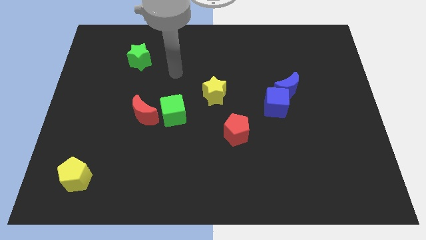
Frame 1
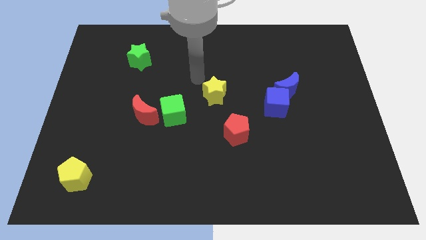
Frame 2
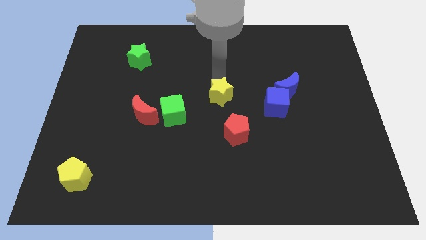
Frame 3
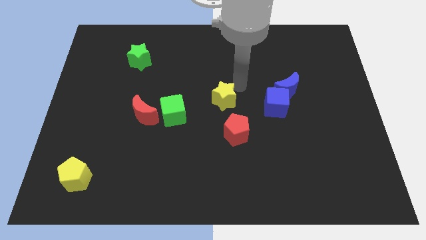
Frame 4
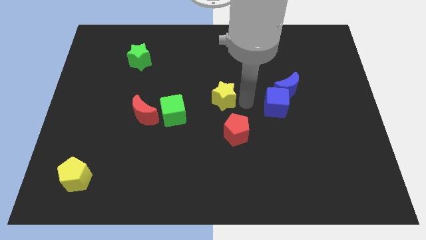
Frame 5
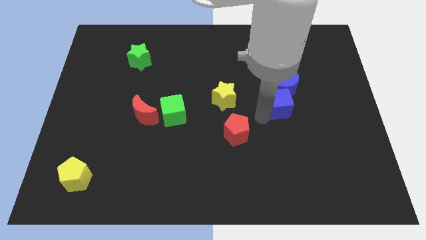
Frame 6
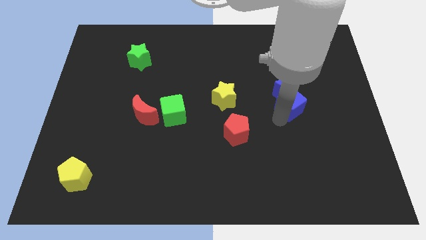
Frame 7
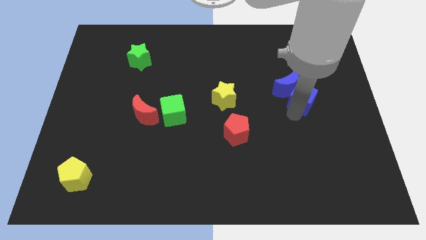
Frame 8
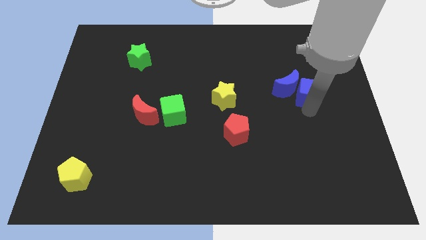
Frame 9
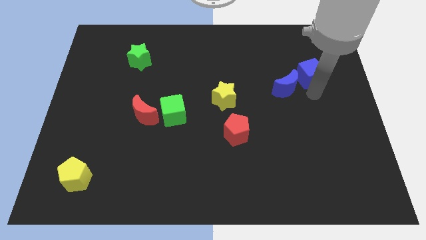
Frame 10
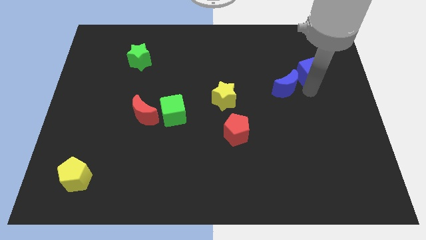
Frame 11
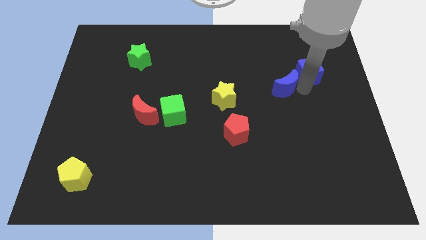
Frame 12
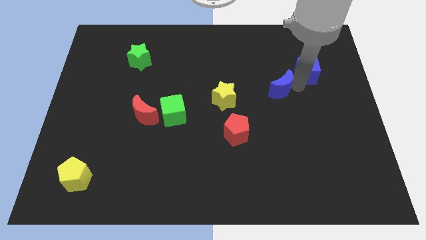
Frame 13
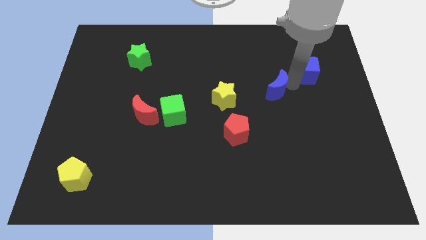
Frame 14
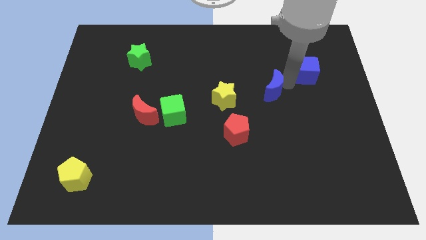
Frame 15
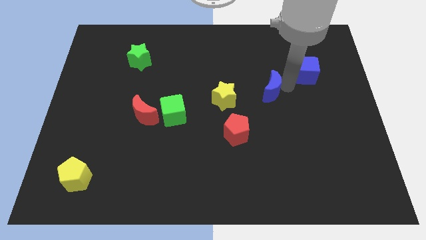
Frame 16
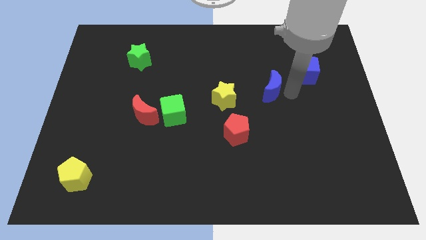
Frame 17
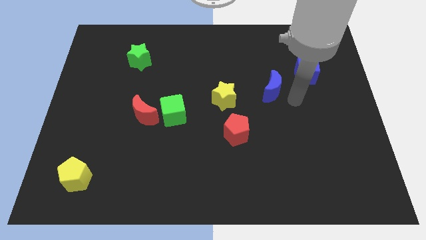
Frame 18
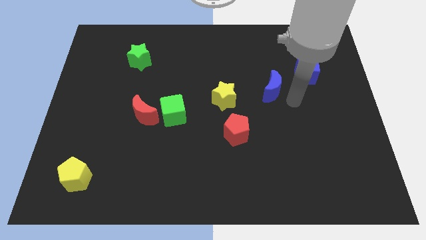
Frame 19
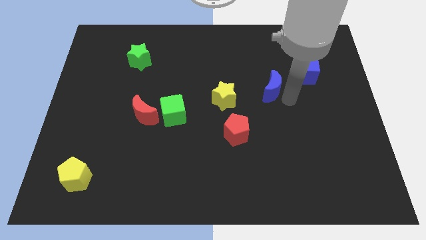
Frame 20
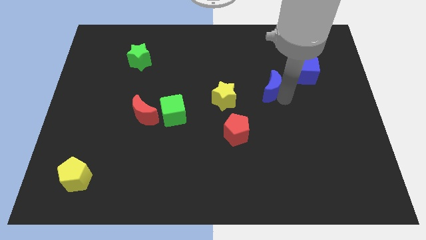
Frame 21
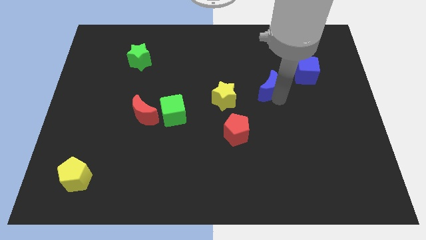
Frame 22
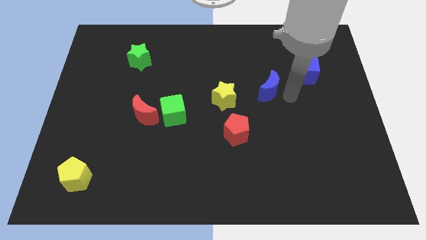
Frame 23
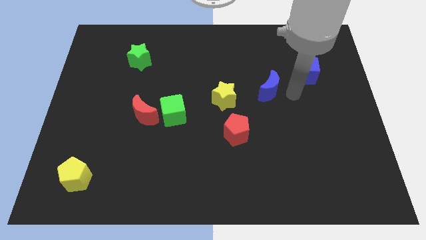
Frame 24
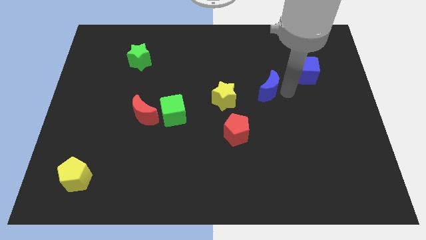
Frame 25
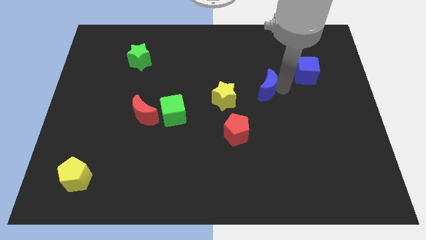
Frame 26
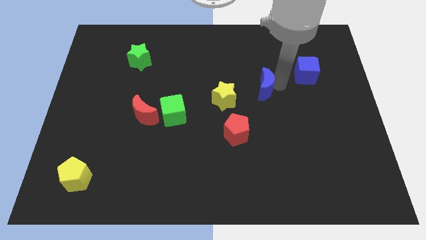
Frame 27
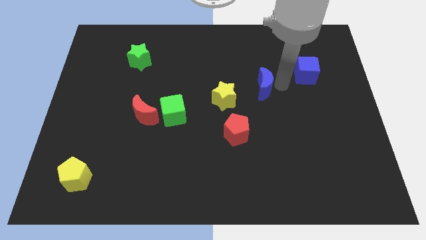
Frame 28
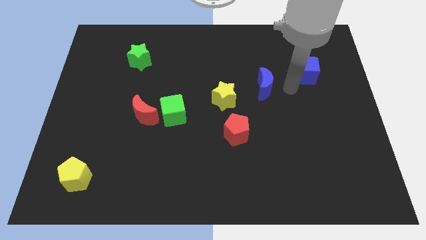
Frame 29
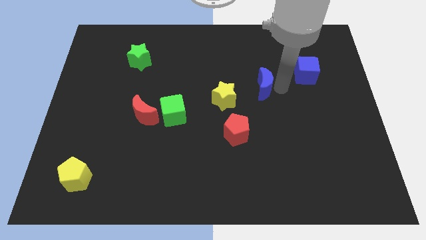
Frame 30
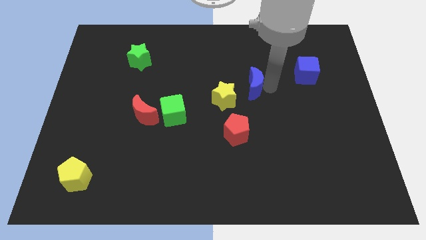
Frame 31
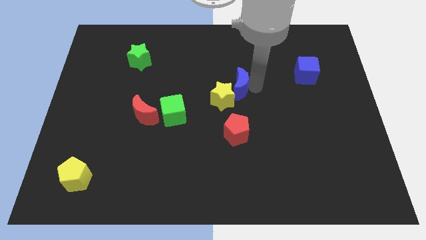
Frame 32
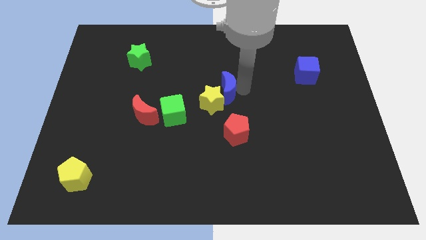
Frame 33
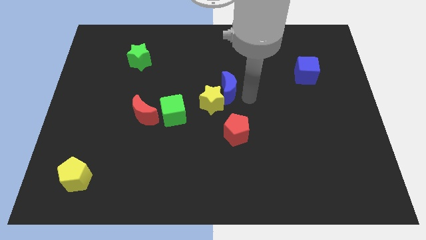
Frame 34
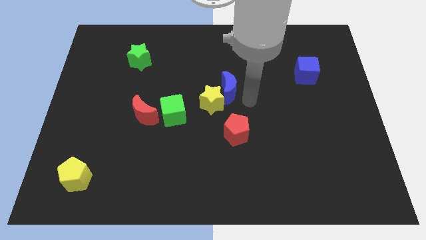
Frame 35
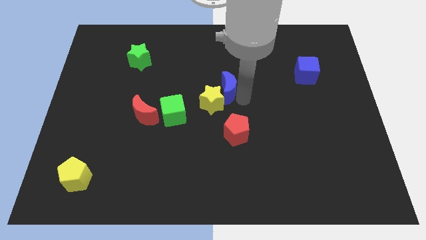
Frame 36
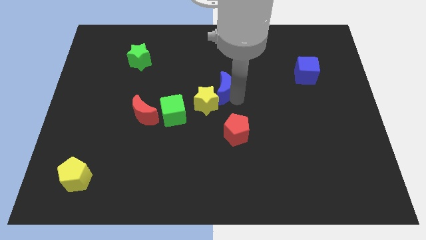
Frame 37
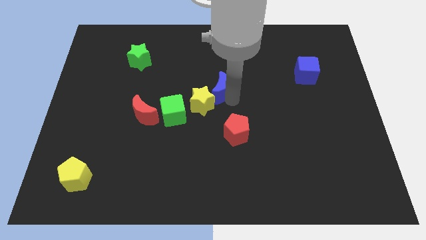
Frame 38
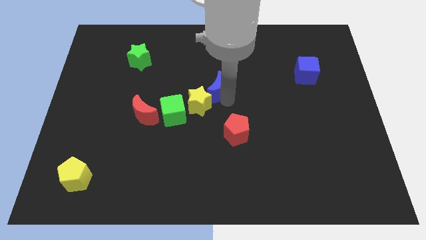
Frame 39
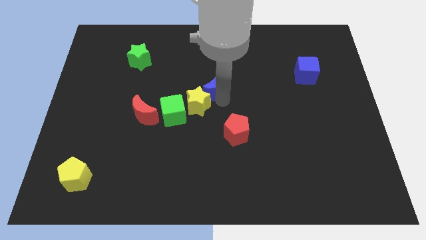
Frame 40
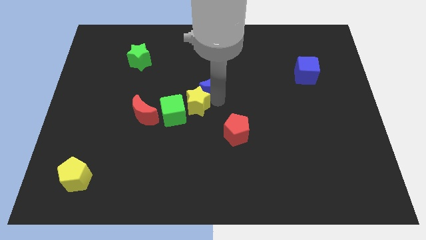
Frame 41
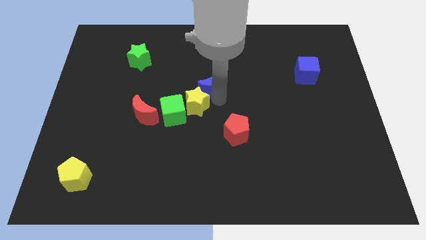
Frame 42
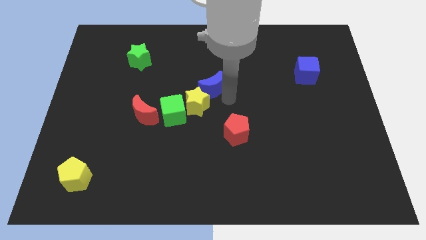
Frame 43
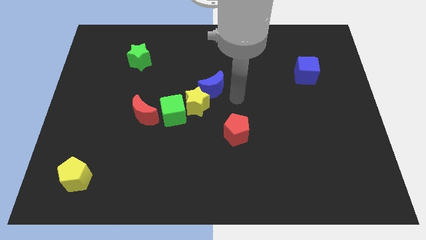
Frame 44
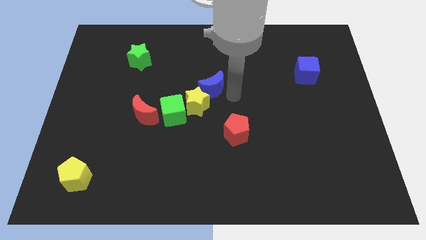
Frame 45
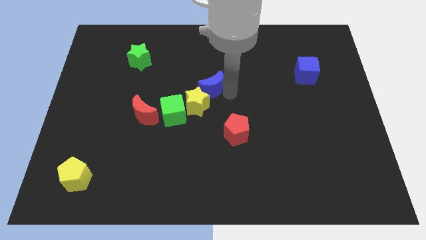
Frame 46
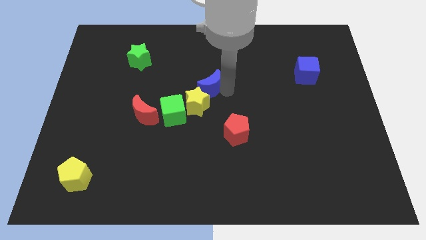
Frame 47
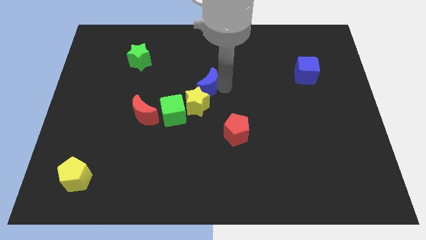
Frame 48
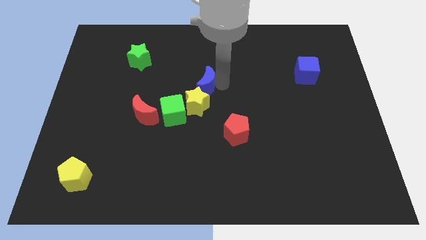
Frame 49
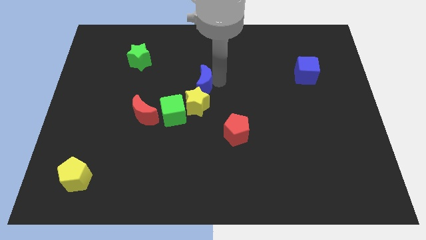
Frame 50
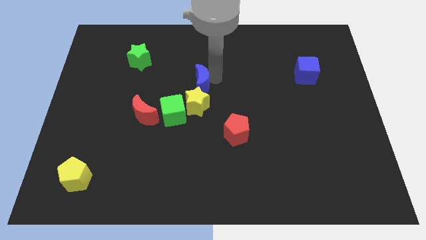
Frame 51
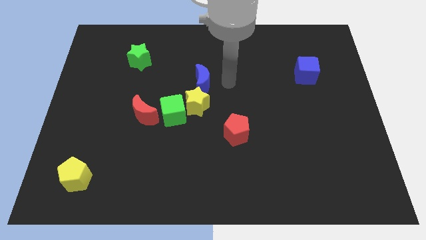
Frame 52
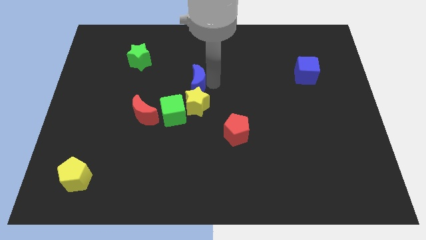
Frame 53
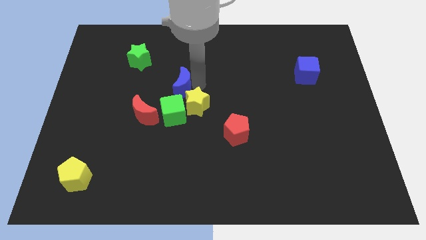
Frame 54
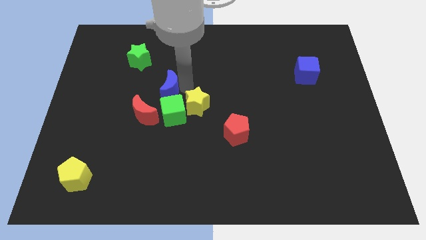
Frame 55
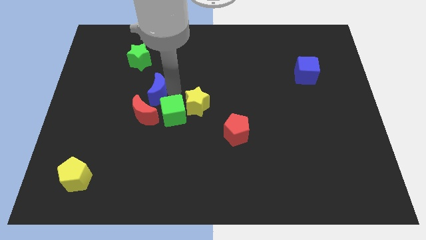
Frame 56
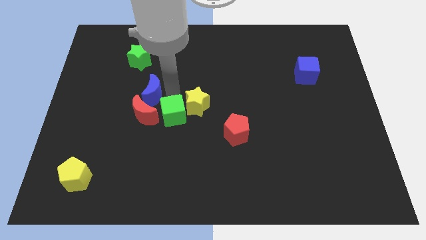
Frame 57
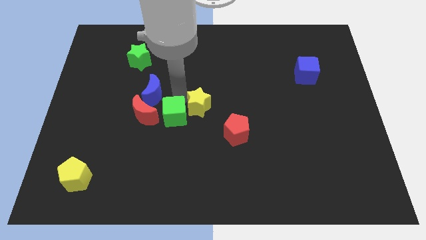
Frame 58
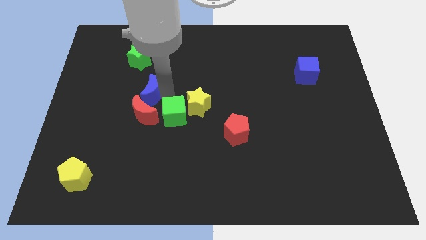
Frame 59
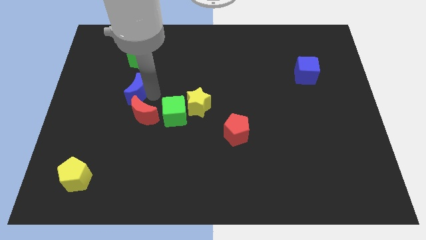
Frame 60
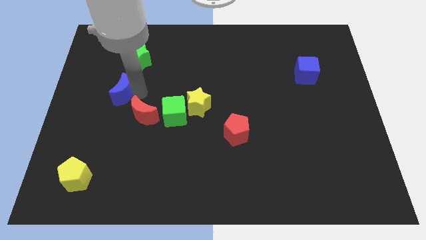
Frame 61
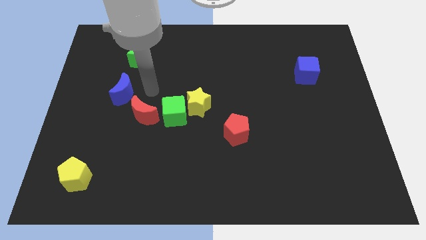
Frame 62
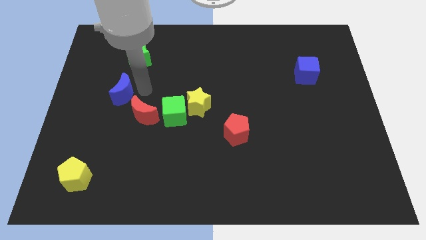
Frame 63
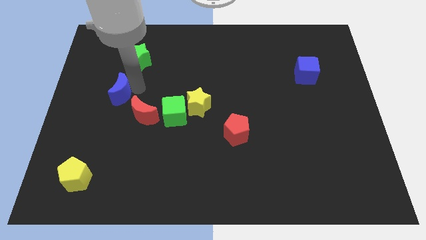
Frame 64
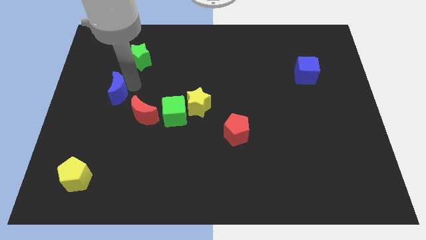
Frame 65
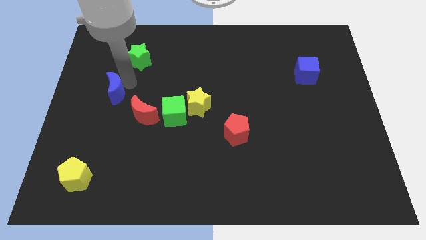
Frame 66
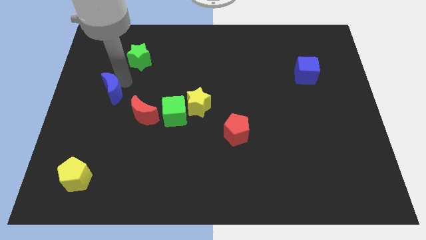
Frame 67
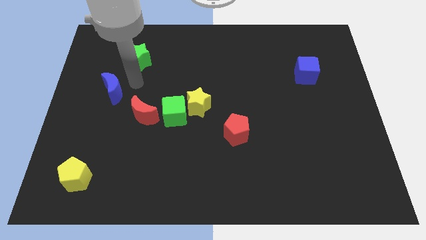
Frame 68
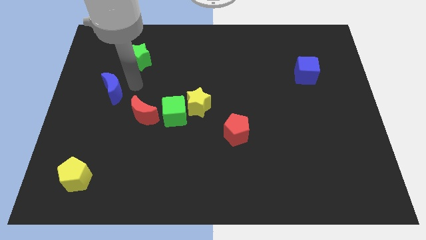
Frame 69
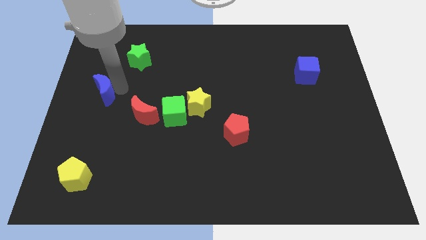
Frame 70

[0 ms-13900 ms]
put the blue moon to the center left

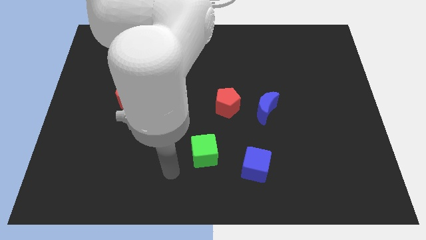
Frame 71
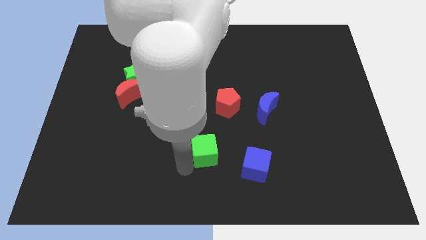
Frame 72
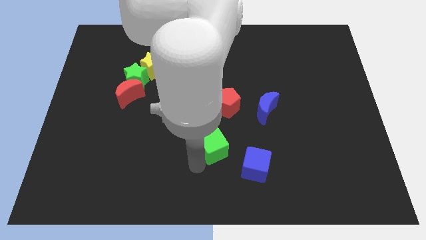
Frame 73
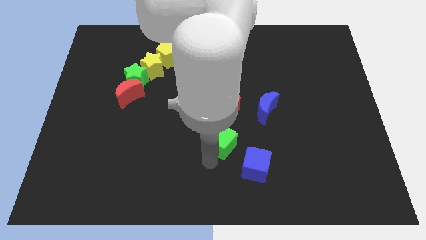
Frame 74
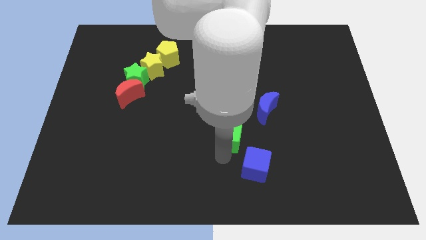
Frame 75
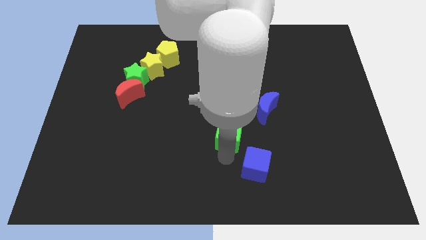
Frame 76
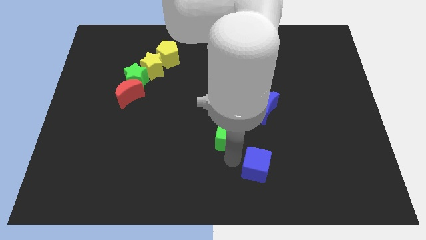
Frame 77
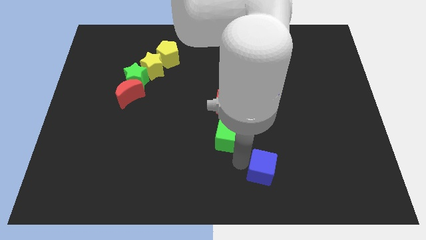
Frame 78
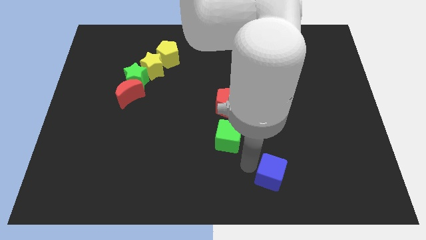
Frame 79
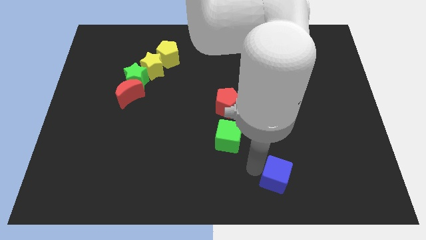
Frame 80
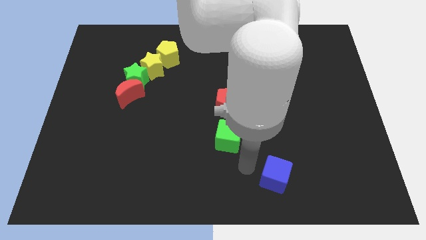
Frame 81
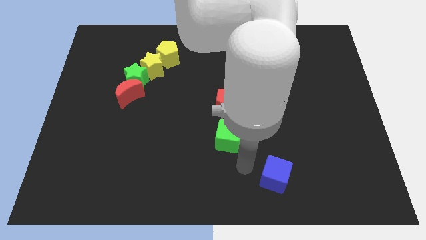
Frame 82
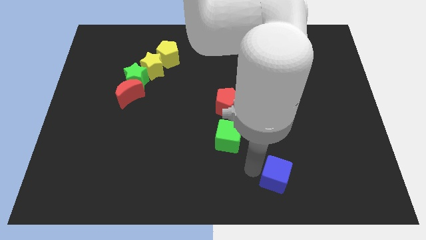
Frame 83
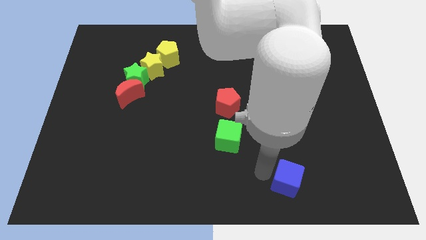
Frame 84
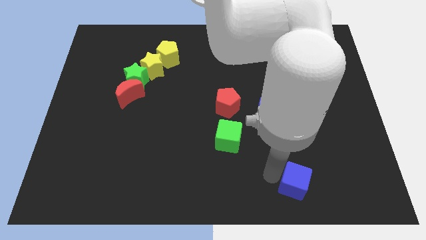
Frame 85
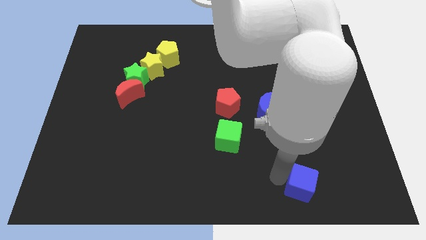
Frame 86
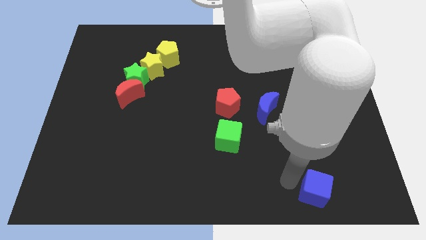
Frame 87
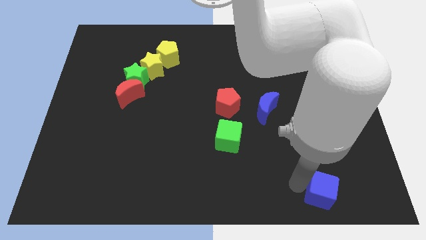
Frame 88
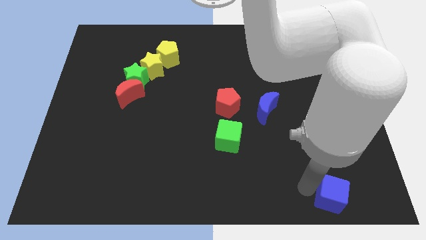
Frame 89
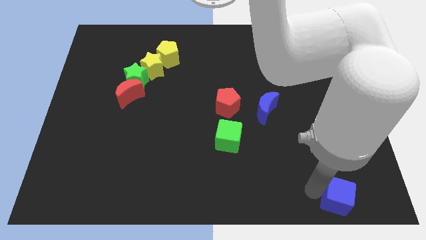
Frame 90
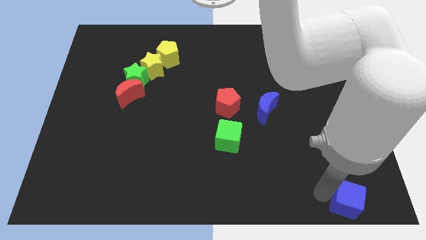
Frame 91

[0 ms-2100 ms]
push the blue cube to the bottom right
